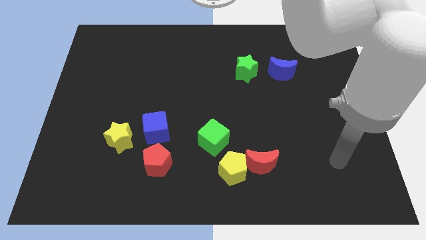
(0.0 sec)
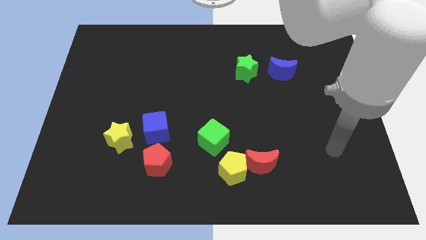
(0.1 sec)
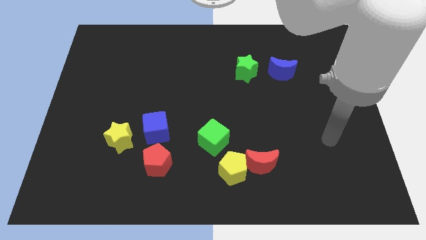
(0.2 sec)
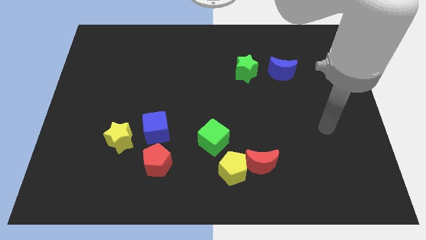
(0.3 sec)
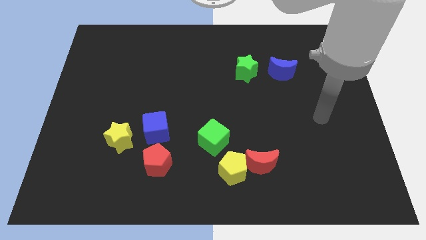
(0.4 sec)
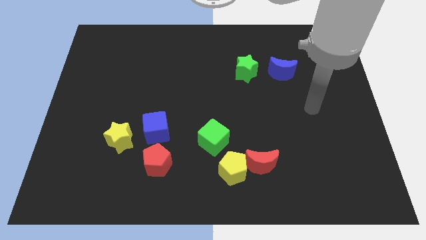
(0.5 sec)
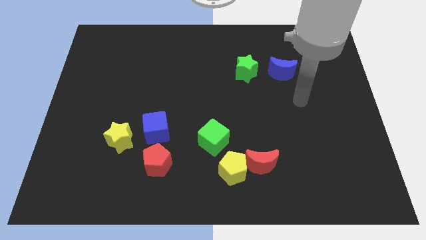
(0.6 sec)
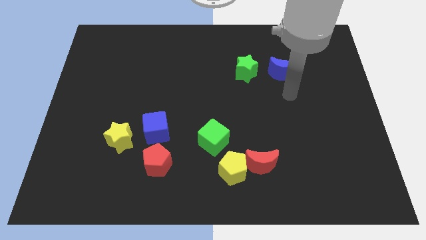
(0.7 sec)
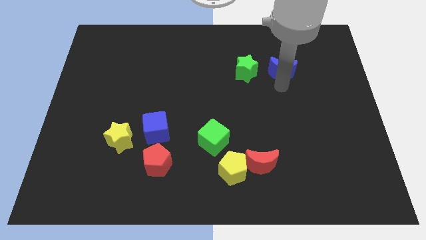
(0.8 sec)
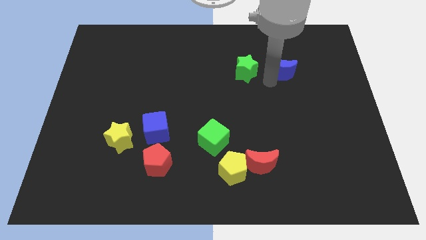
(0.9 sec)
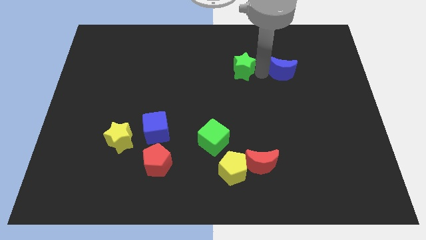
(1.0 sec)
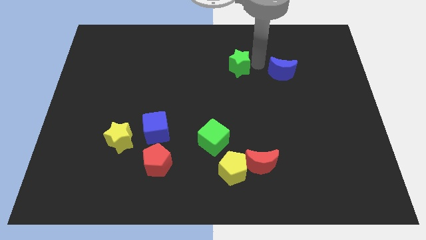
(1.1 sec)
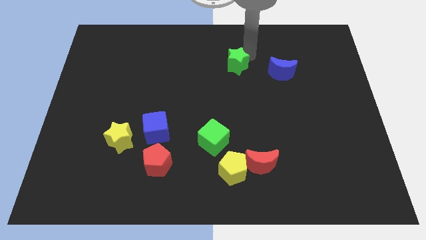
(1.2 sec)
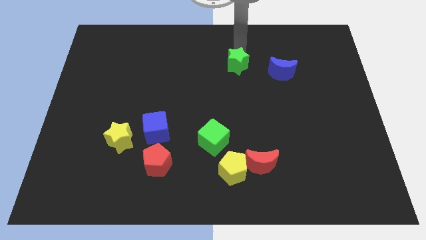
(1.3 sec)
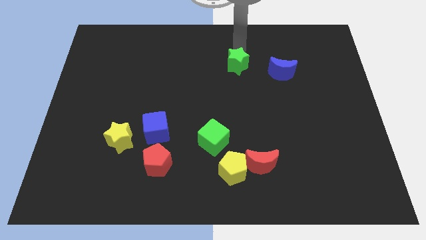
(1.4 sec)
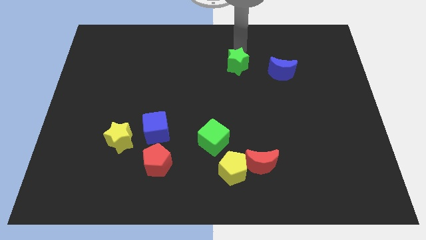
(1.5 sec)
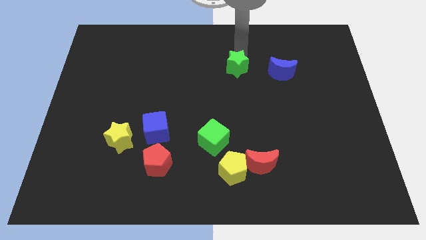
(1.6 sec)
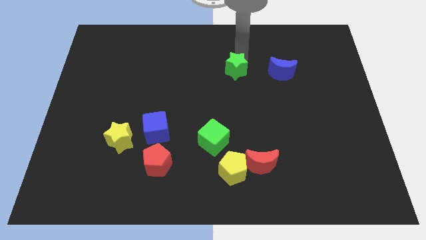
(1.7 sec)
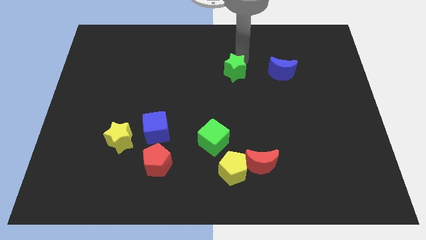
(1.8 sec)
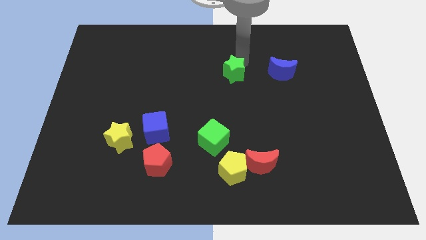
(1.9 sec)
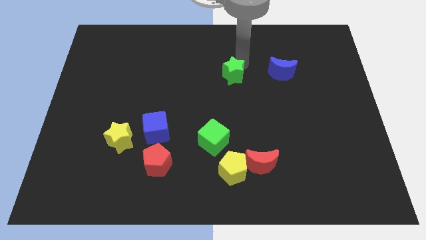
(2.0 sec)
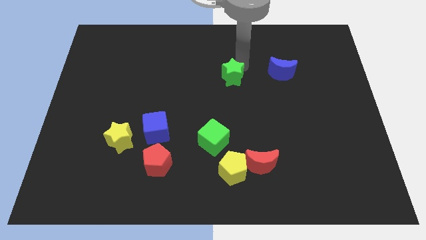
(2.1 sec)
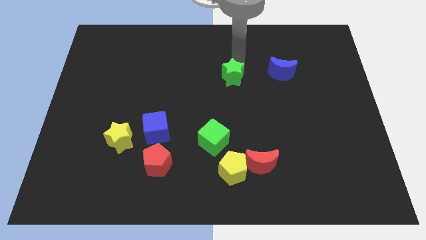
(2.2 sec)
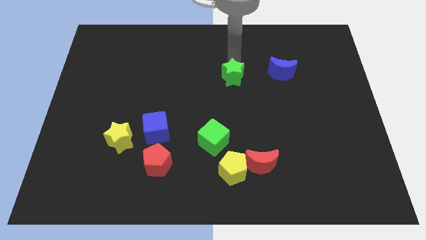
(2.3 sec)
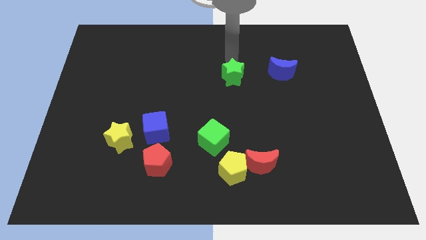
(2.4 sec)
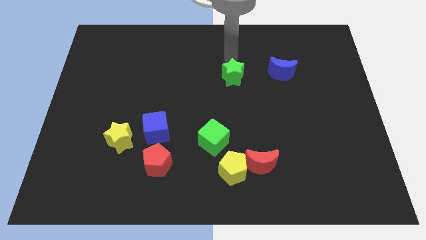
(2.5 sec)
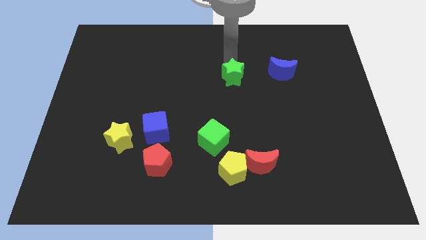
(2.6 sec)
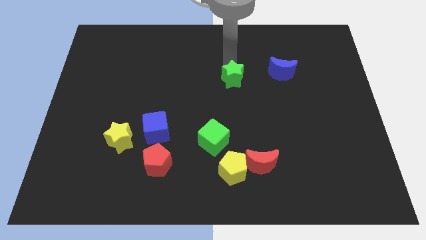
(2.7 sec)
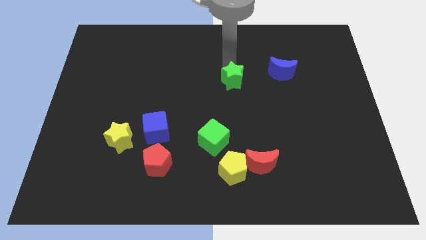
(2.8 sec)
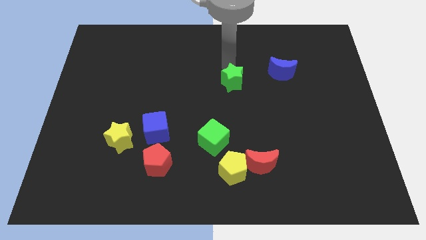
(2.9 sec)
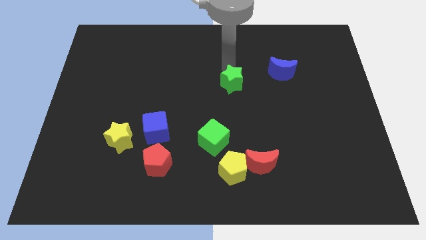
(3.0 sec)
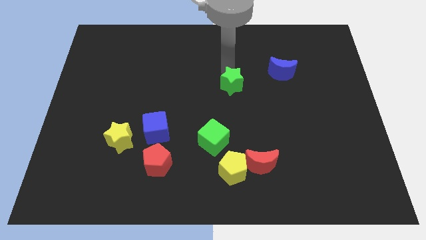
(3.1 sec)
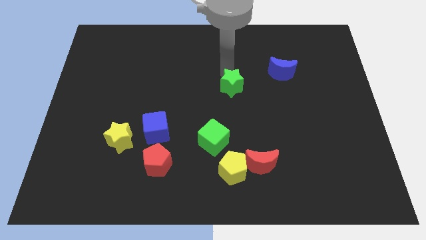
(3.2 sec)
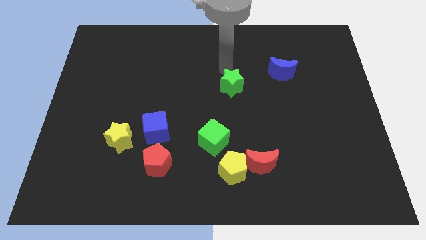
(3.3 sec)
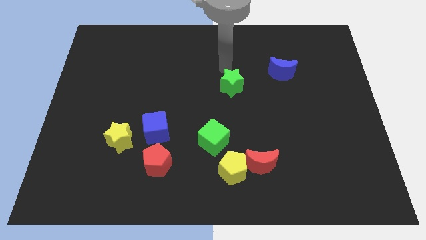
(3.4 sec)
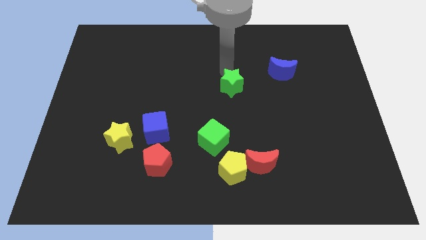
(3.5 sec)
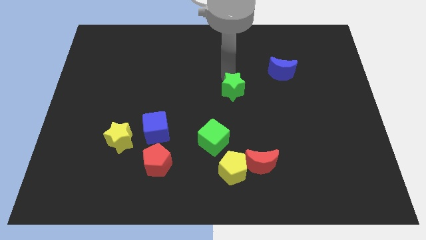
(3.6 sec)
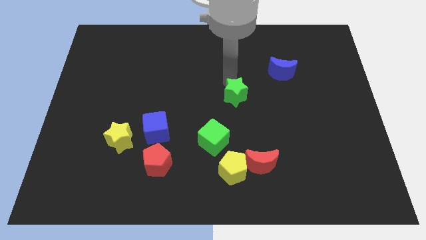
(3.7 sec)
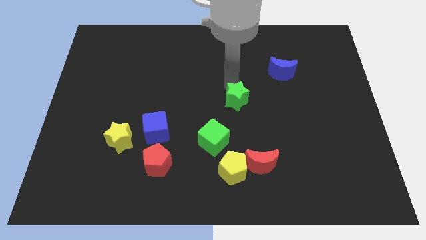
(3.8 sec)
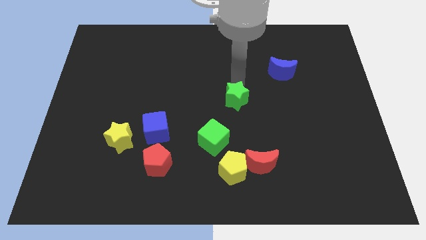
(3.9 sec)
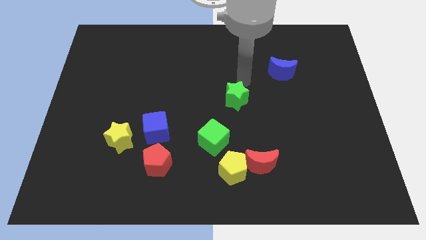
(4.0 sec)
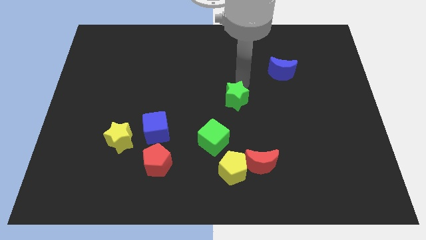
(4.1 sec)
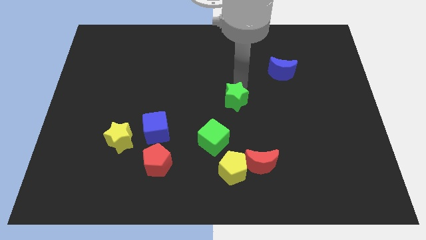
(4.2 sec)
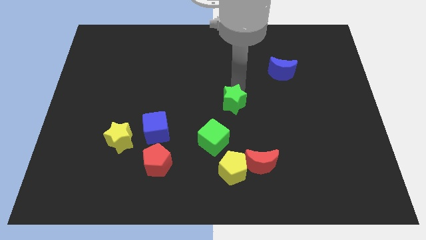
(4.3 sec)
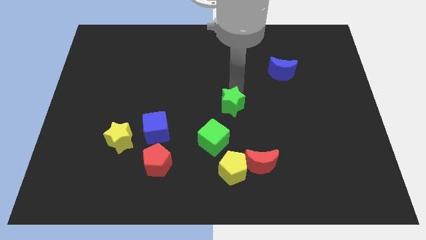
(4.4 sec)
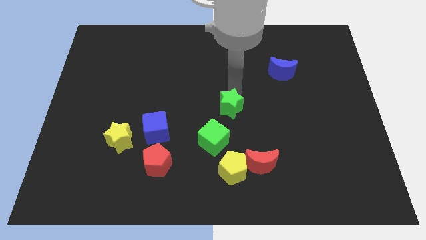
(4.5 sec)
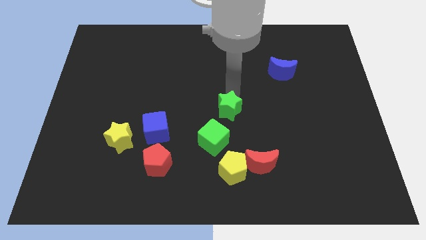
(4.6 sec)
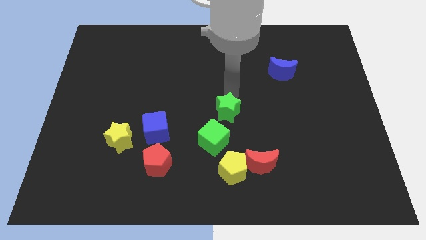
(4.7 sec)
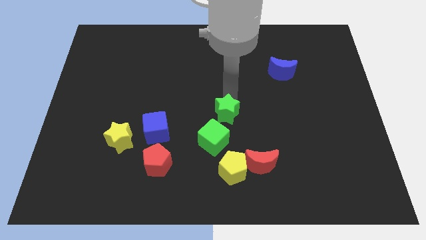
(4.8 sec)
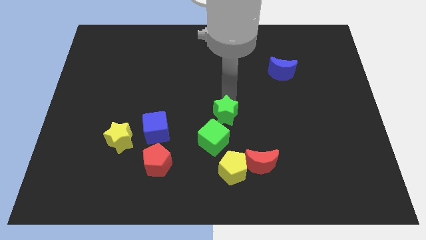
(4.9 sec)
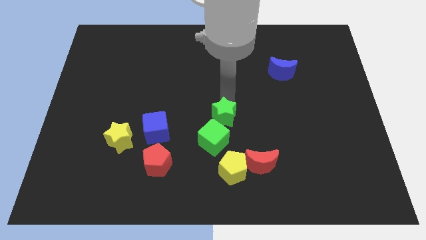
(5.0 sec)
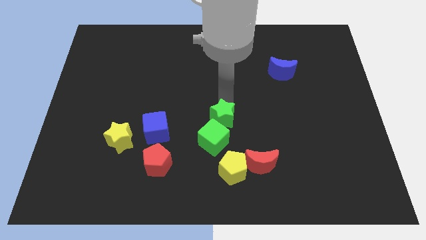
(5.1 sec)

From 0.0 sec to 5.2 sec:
slide the green star to the green cube

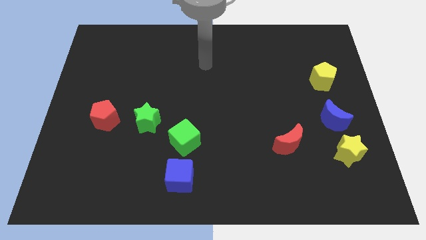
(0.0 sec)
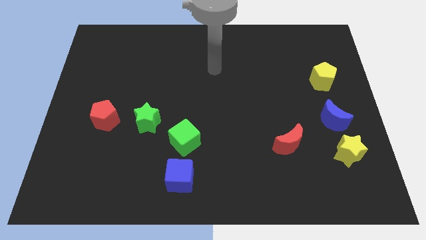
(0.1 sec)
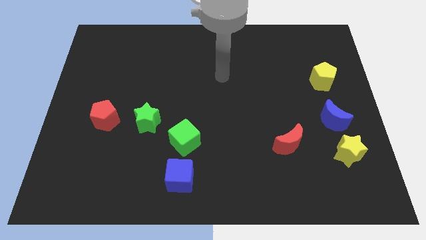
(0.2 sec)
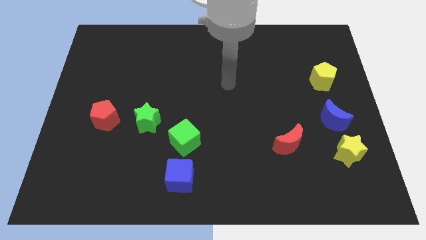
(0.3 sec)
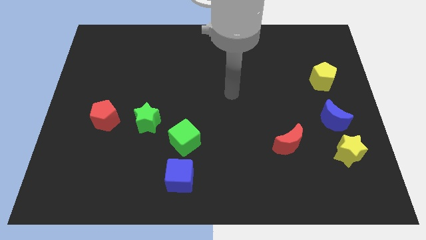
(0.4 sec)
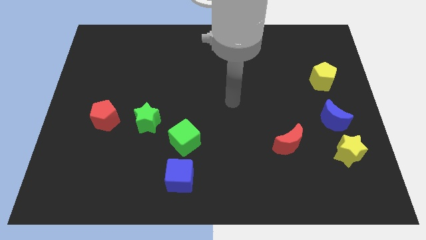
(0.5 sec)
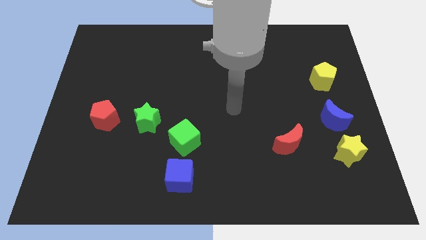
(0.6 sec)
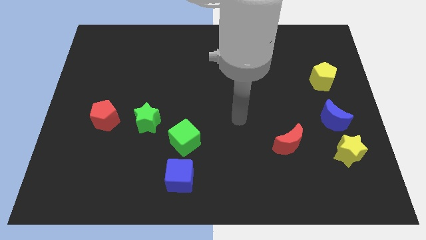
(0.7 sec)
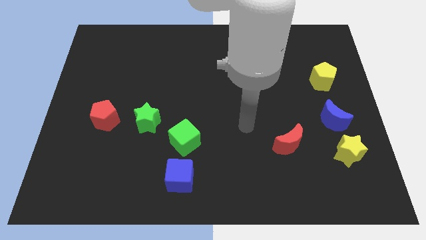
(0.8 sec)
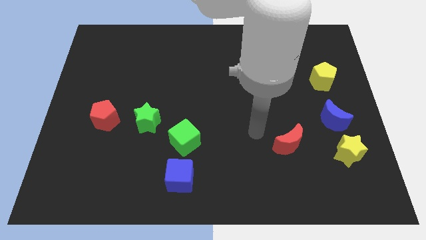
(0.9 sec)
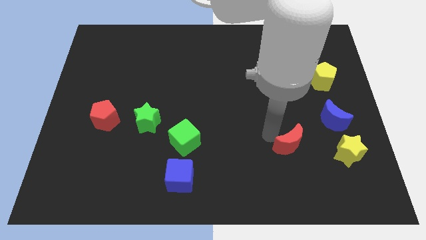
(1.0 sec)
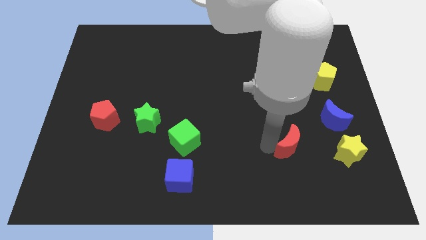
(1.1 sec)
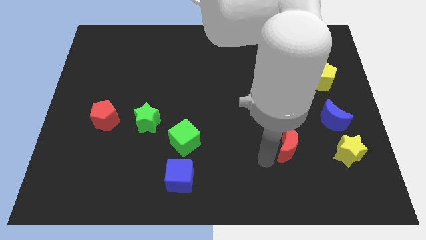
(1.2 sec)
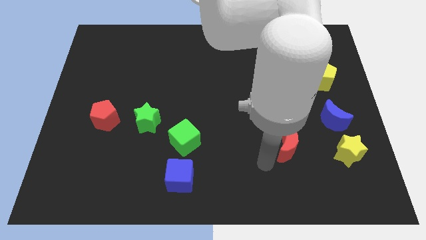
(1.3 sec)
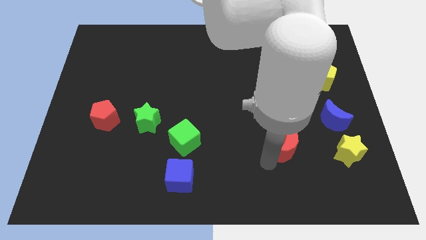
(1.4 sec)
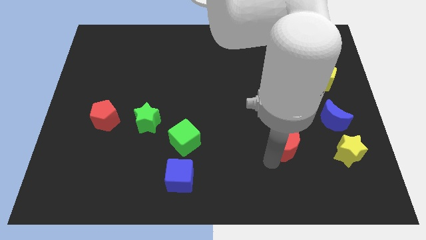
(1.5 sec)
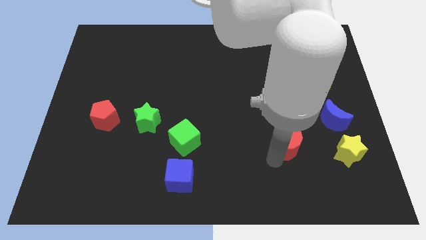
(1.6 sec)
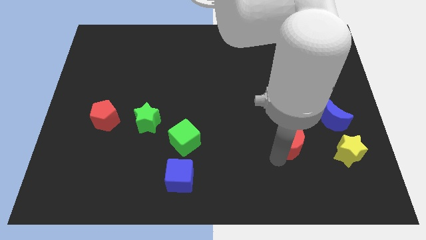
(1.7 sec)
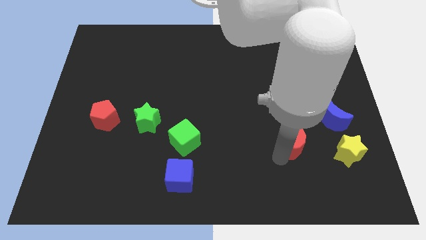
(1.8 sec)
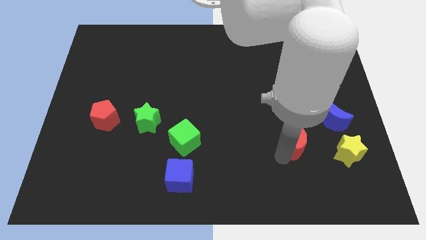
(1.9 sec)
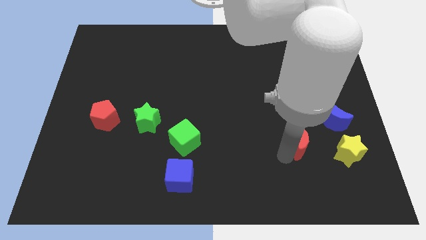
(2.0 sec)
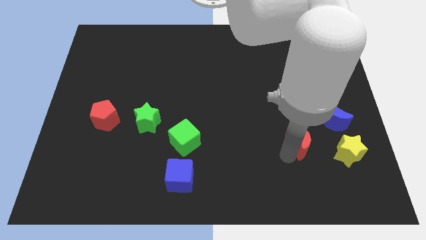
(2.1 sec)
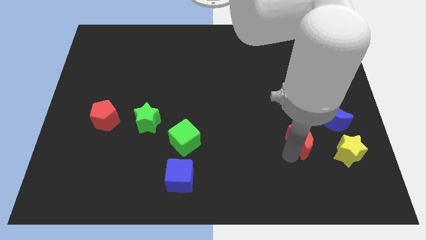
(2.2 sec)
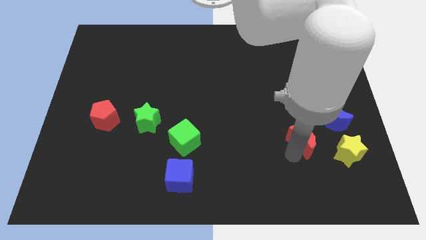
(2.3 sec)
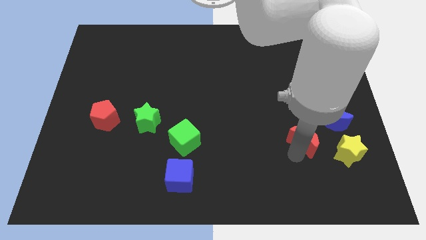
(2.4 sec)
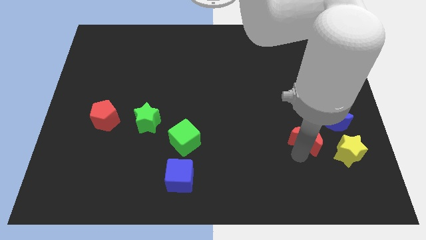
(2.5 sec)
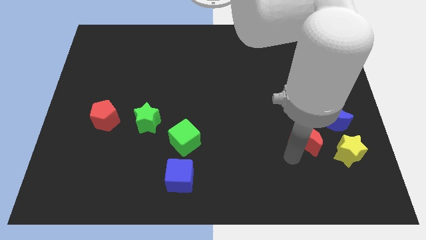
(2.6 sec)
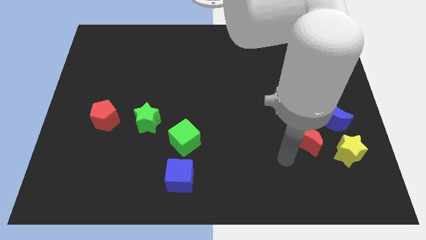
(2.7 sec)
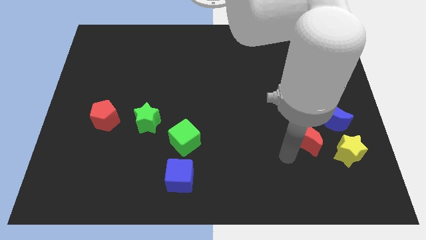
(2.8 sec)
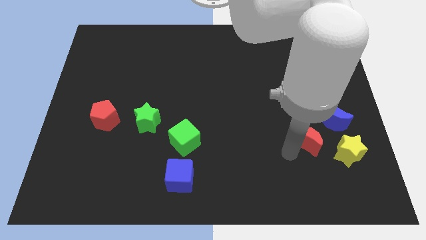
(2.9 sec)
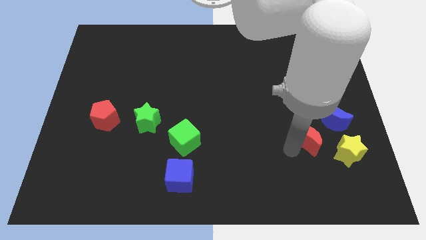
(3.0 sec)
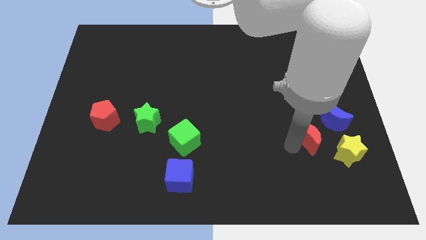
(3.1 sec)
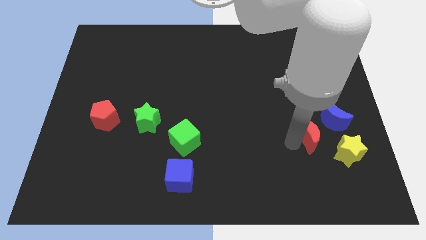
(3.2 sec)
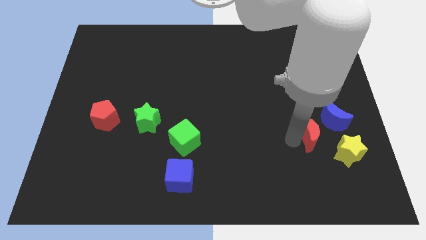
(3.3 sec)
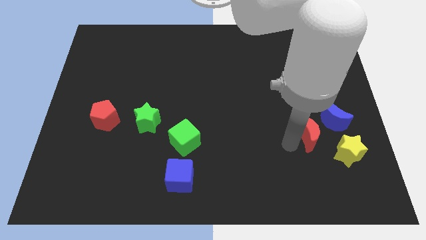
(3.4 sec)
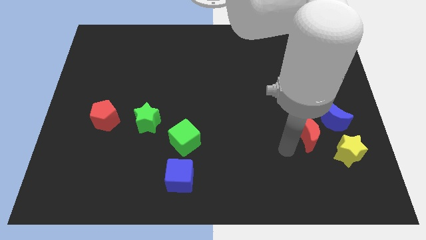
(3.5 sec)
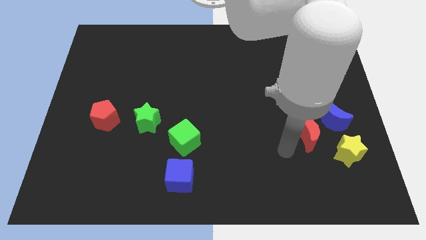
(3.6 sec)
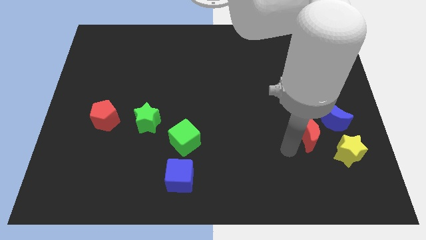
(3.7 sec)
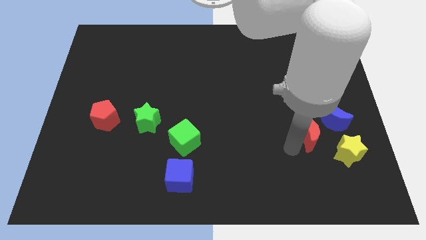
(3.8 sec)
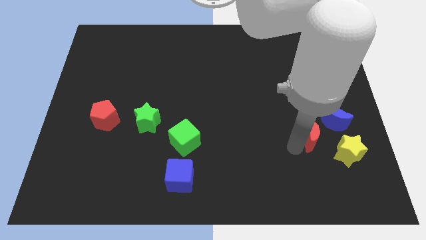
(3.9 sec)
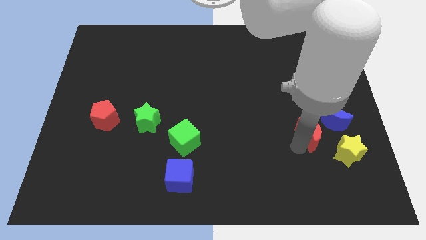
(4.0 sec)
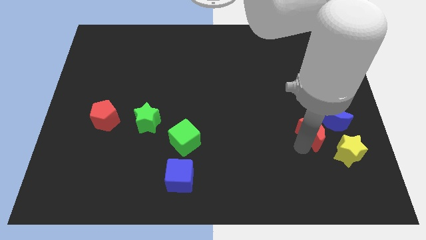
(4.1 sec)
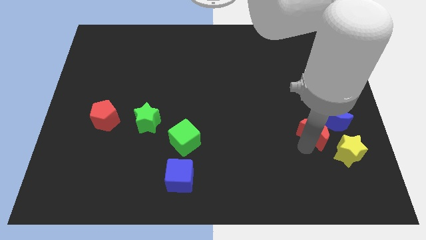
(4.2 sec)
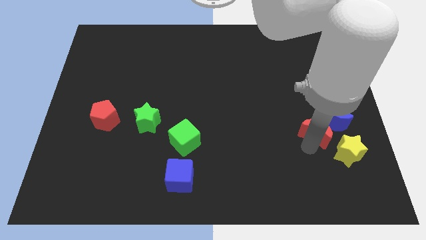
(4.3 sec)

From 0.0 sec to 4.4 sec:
move the red moon next to the blue moon
